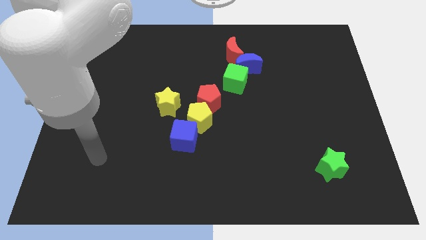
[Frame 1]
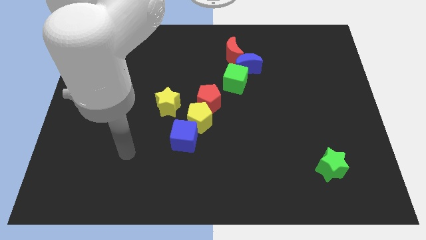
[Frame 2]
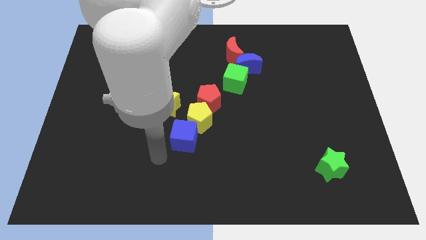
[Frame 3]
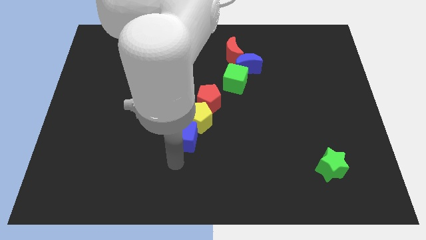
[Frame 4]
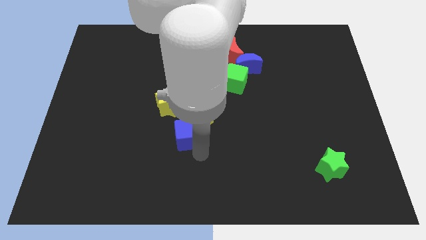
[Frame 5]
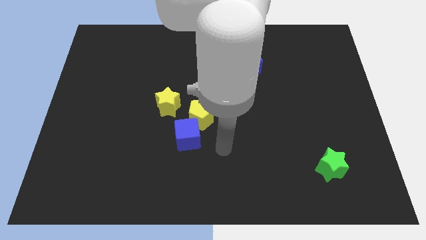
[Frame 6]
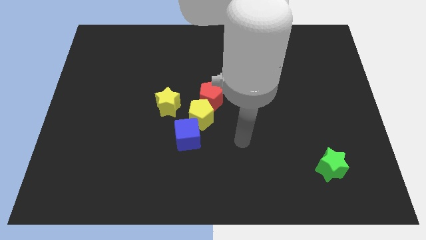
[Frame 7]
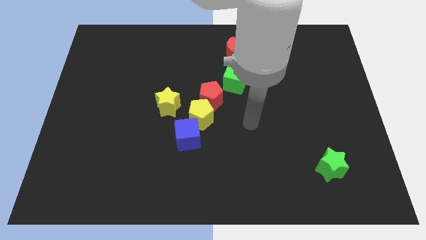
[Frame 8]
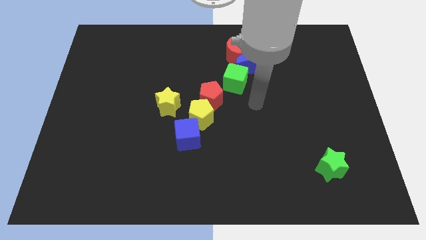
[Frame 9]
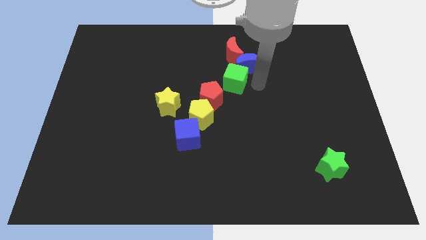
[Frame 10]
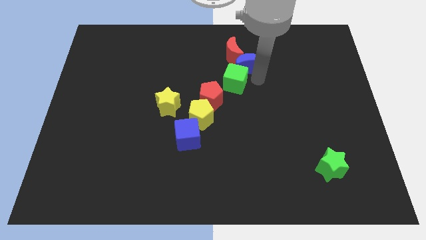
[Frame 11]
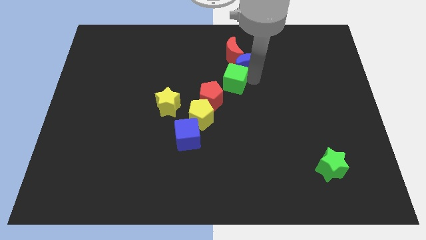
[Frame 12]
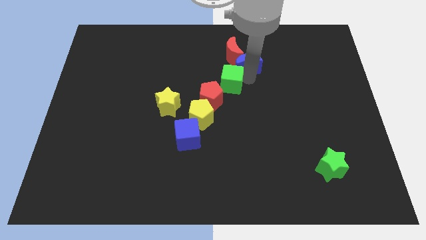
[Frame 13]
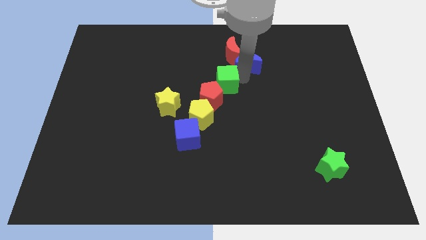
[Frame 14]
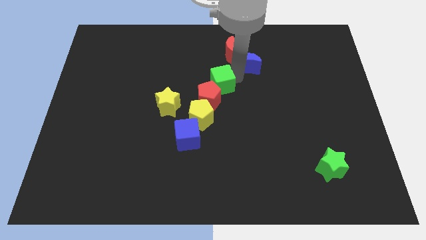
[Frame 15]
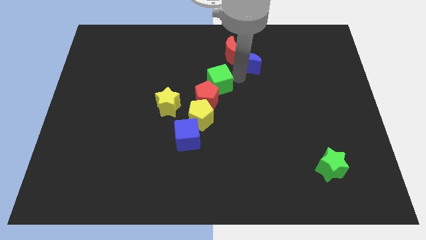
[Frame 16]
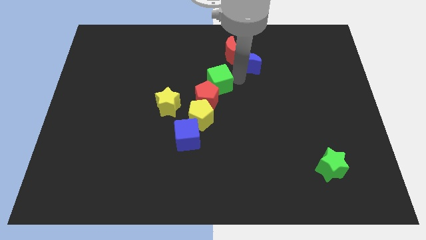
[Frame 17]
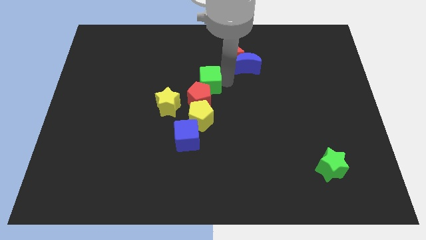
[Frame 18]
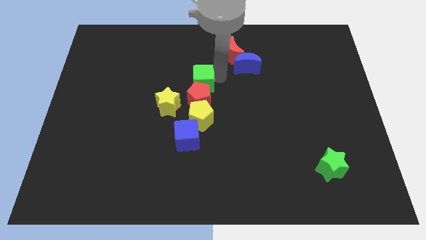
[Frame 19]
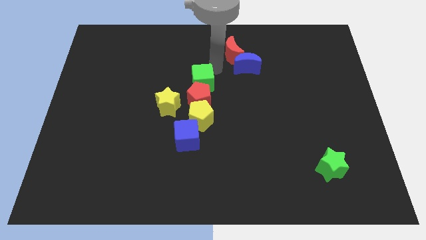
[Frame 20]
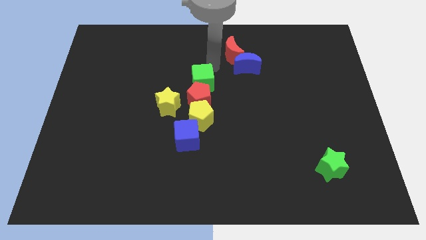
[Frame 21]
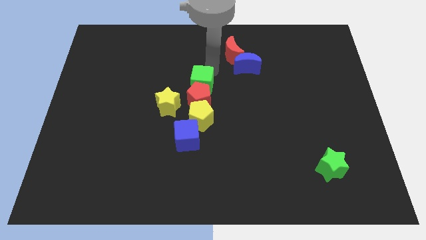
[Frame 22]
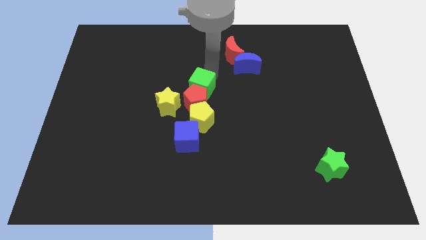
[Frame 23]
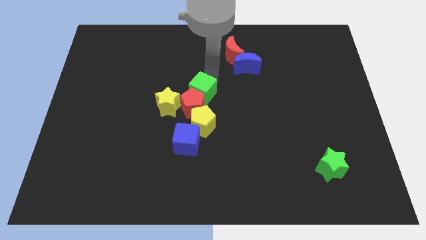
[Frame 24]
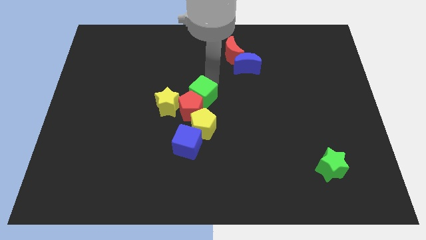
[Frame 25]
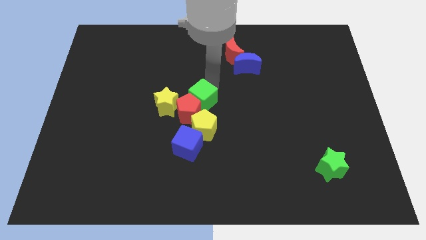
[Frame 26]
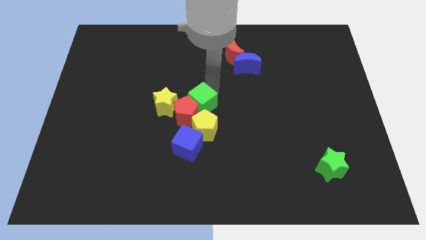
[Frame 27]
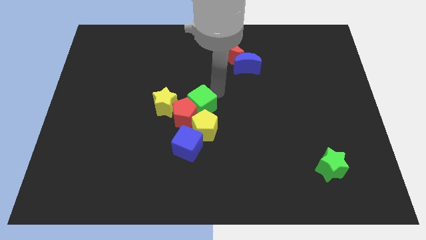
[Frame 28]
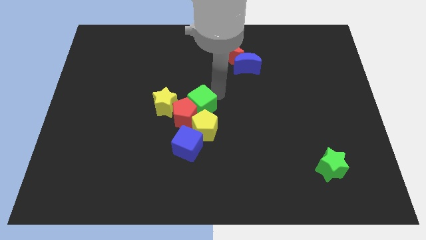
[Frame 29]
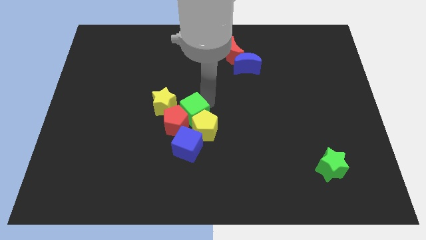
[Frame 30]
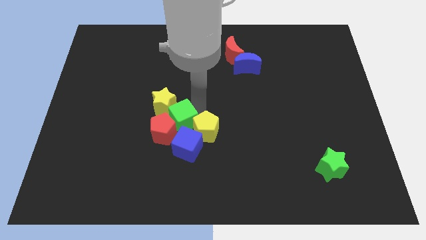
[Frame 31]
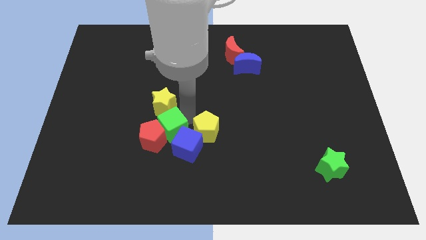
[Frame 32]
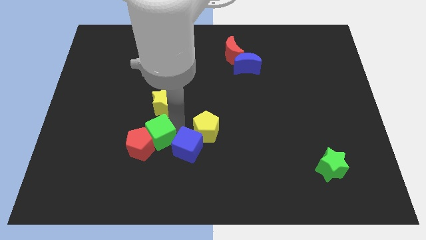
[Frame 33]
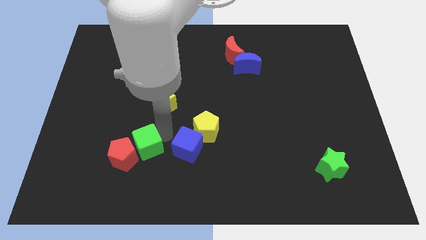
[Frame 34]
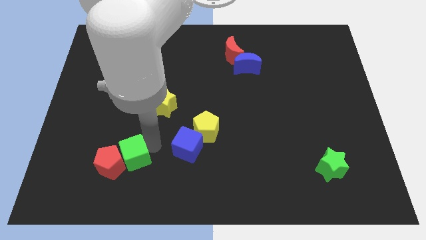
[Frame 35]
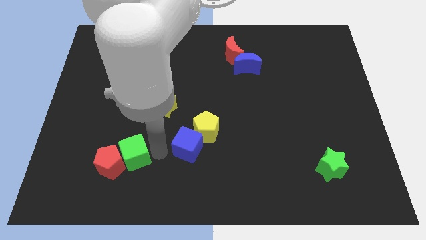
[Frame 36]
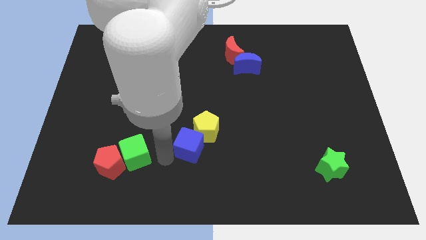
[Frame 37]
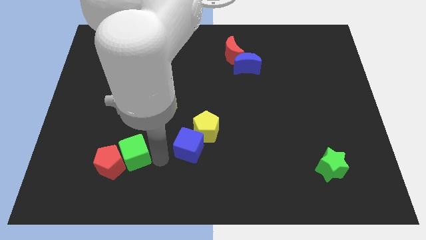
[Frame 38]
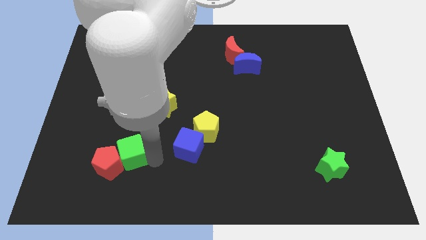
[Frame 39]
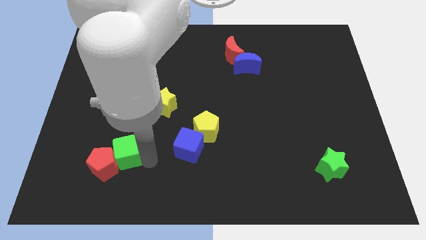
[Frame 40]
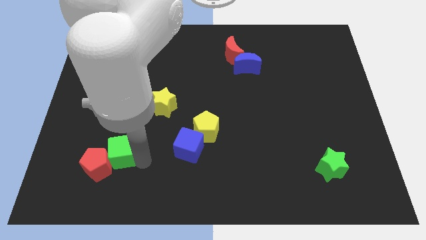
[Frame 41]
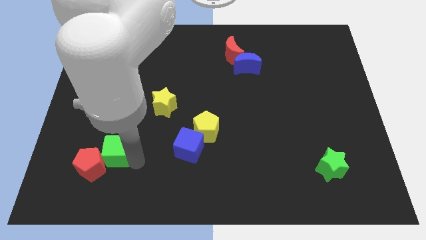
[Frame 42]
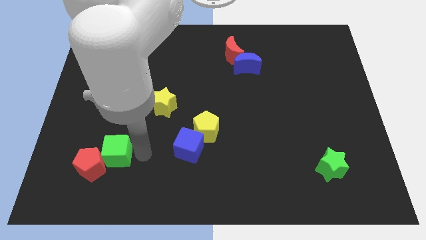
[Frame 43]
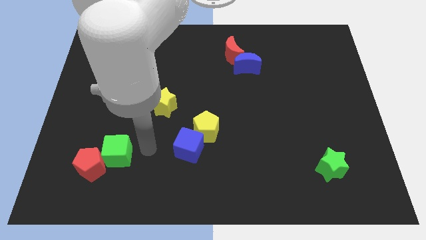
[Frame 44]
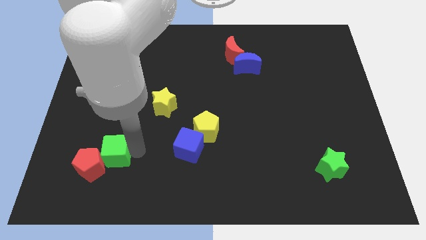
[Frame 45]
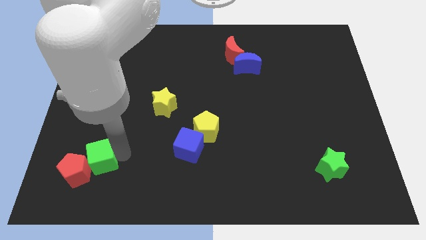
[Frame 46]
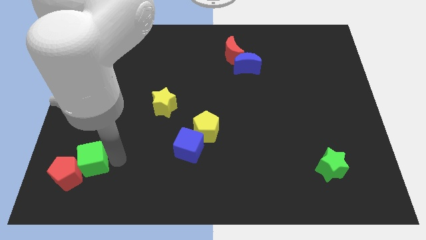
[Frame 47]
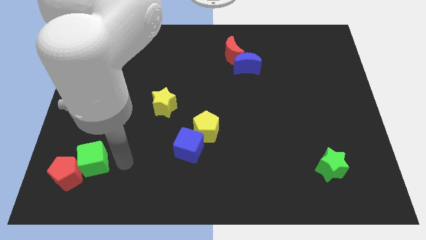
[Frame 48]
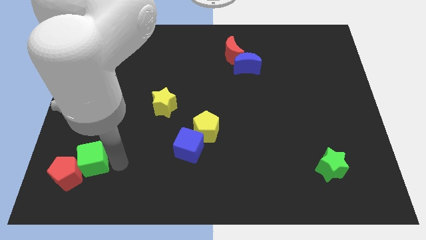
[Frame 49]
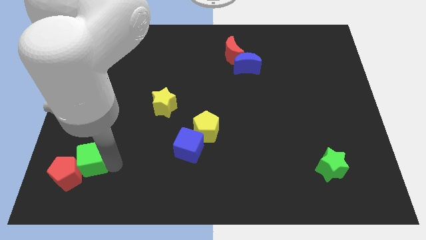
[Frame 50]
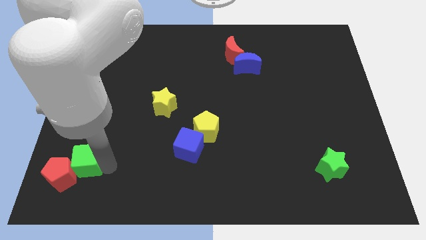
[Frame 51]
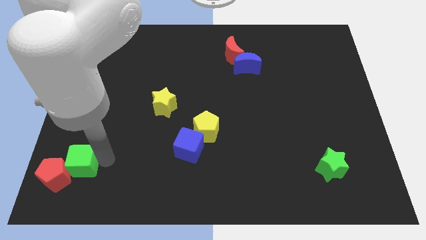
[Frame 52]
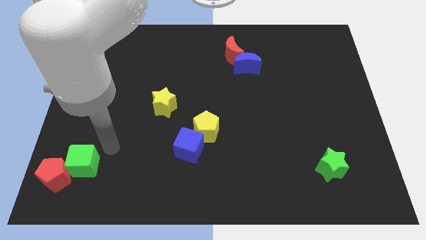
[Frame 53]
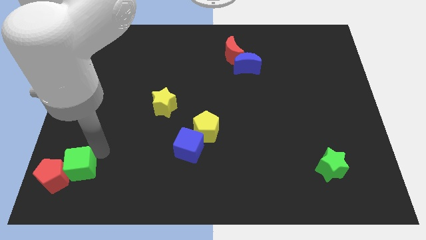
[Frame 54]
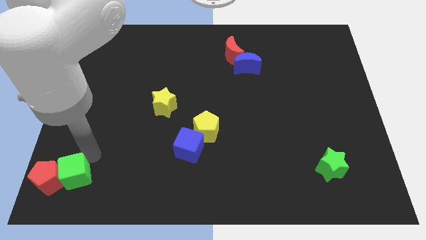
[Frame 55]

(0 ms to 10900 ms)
slide the green cube to the lower left corner
